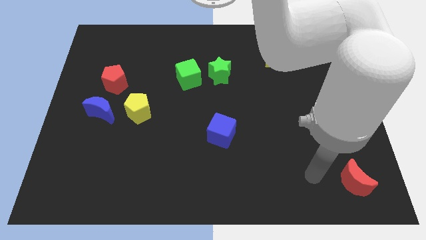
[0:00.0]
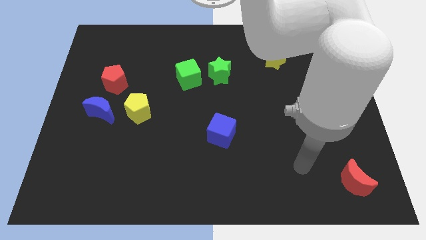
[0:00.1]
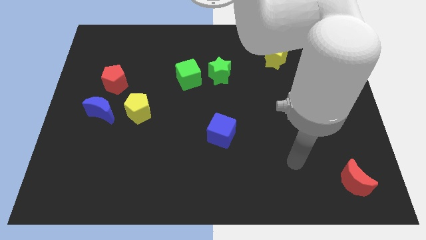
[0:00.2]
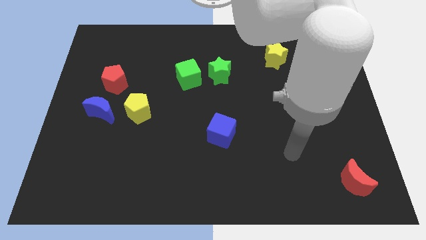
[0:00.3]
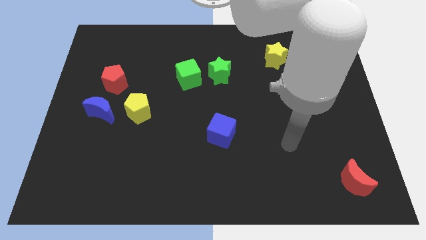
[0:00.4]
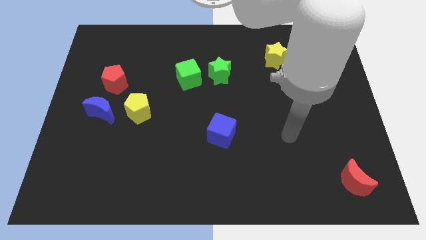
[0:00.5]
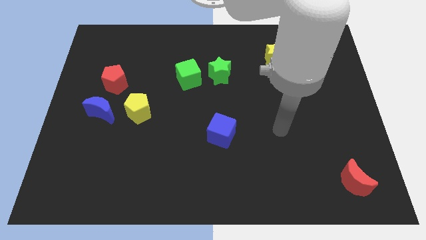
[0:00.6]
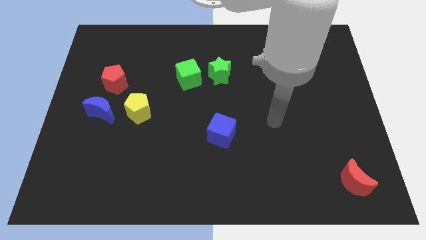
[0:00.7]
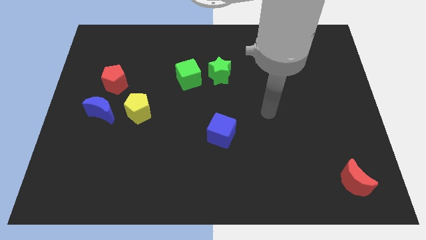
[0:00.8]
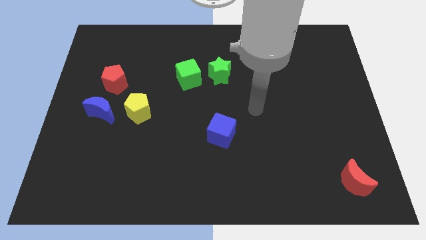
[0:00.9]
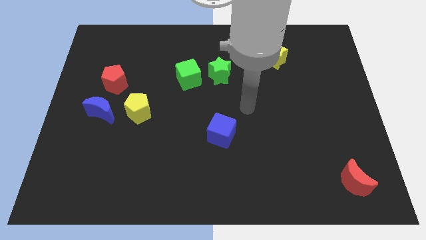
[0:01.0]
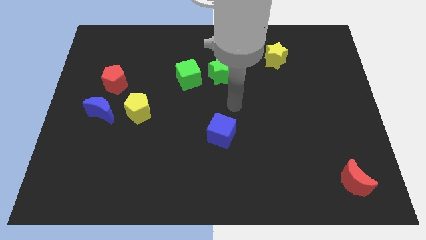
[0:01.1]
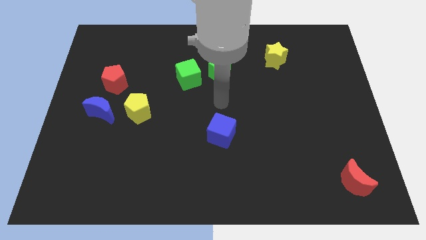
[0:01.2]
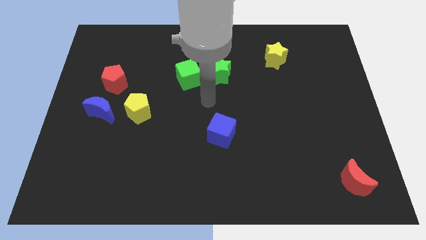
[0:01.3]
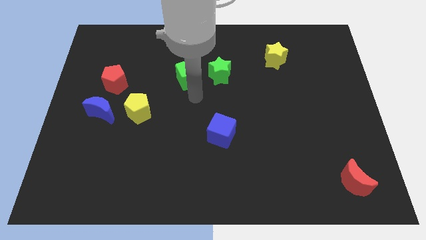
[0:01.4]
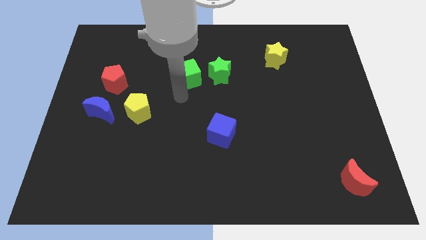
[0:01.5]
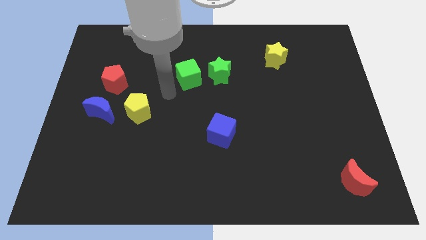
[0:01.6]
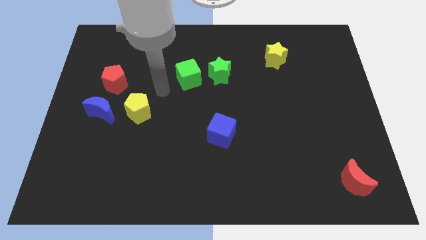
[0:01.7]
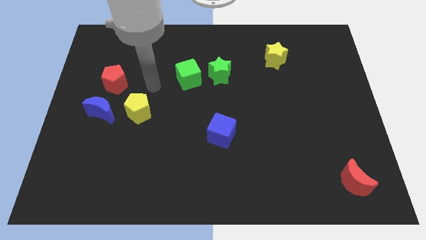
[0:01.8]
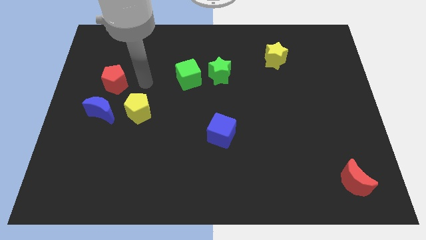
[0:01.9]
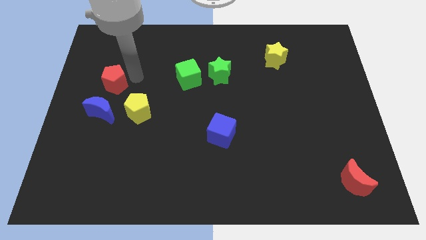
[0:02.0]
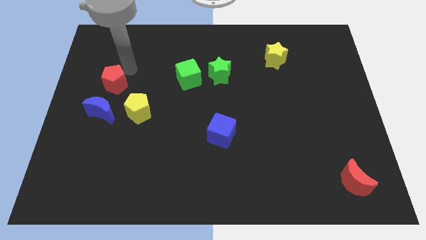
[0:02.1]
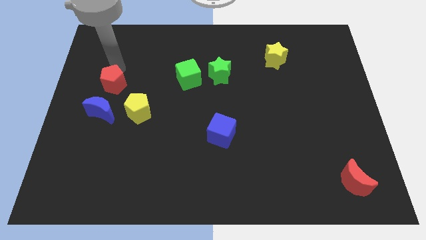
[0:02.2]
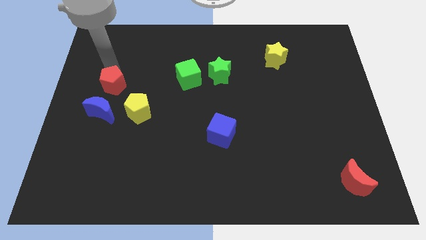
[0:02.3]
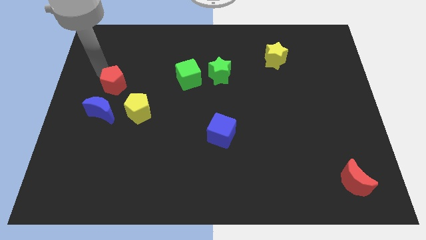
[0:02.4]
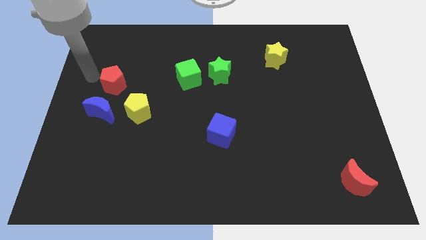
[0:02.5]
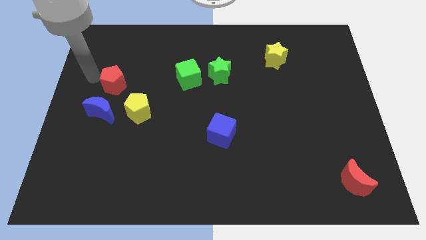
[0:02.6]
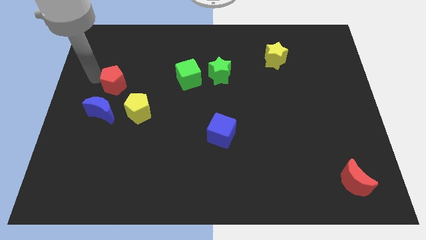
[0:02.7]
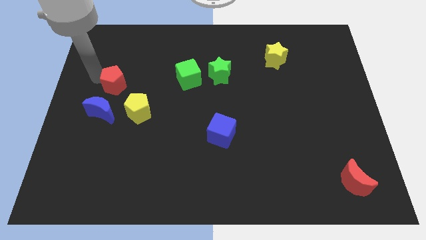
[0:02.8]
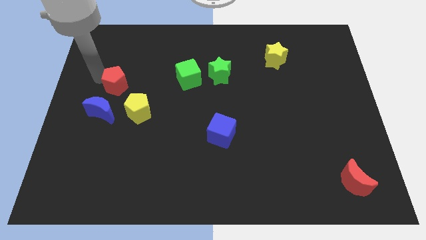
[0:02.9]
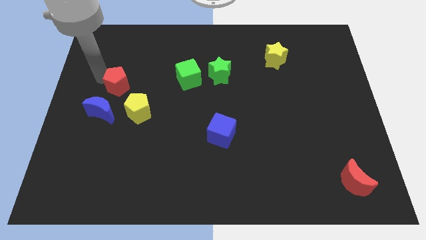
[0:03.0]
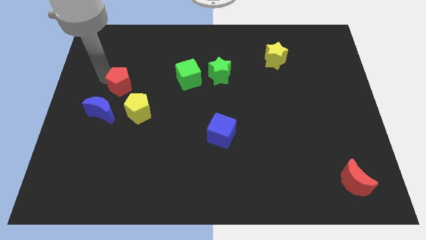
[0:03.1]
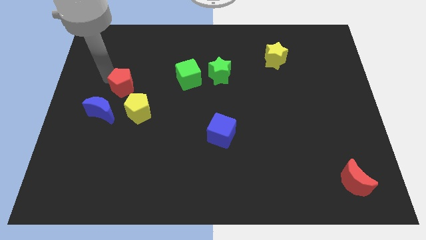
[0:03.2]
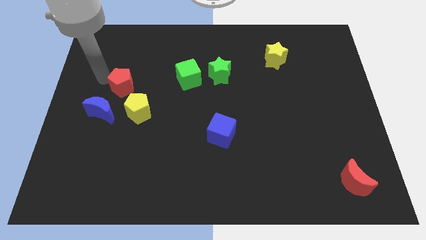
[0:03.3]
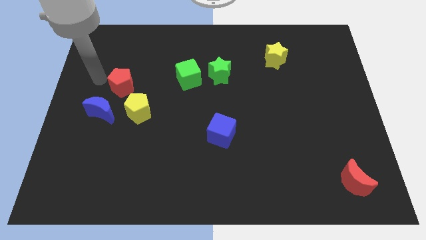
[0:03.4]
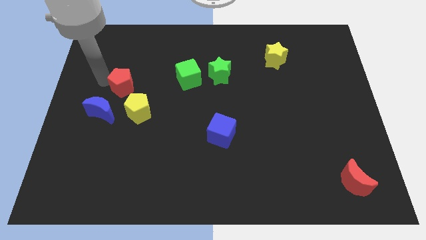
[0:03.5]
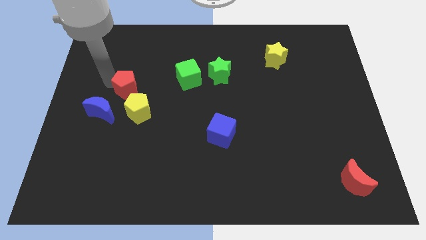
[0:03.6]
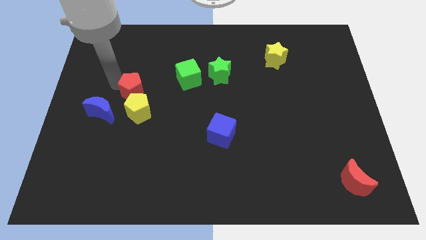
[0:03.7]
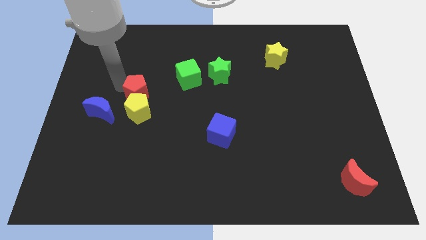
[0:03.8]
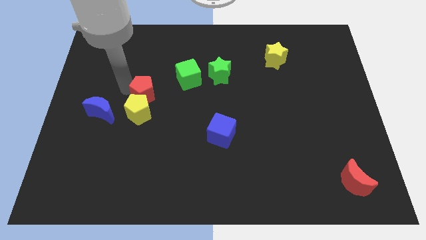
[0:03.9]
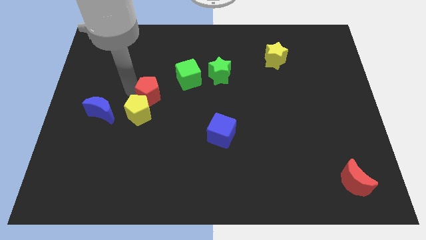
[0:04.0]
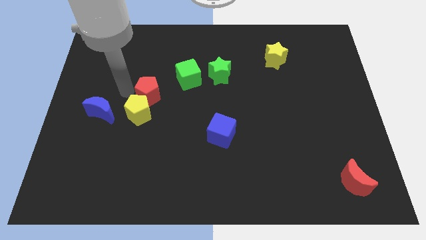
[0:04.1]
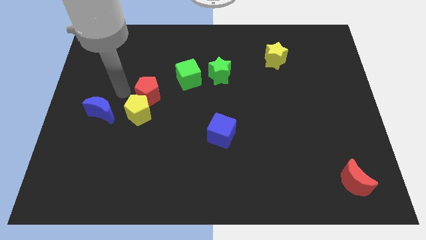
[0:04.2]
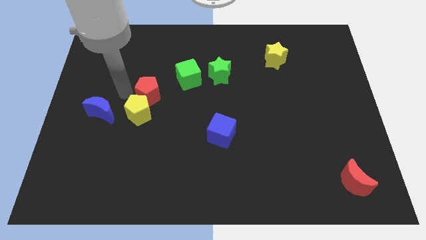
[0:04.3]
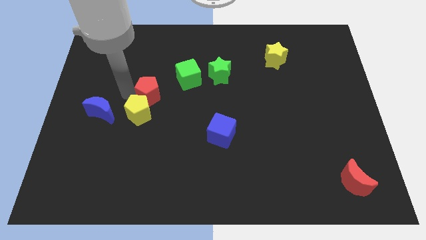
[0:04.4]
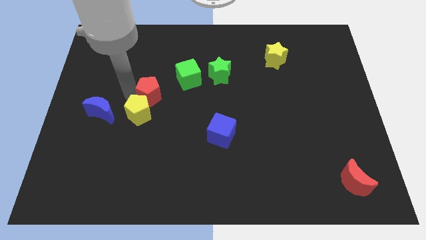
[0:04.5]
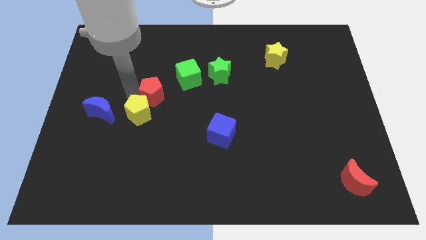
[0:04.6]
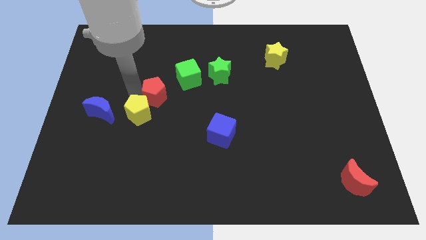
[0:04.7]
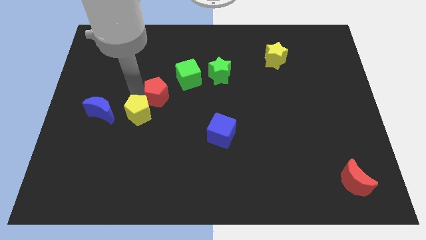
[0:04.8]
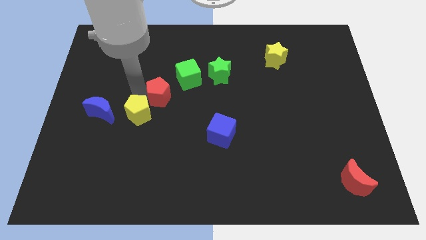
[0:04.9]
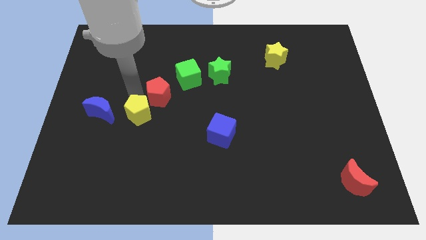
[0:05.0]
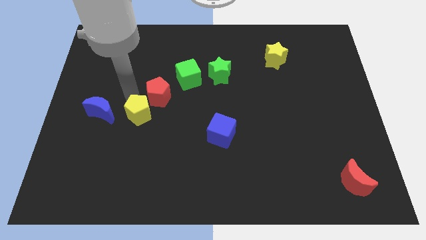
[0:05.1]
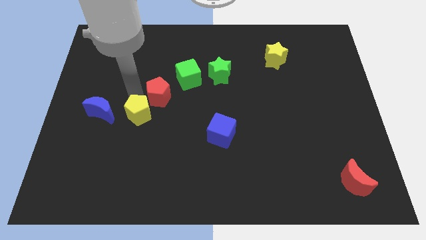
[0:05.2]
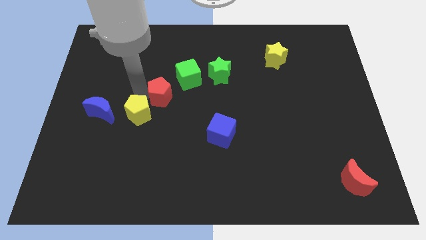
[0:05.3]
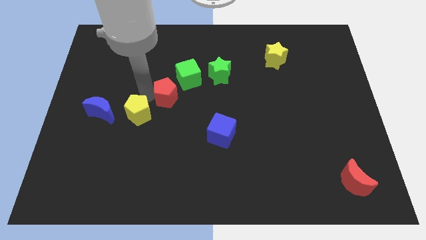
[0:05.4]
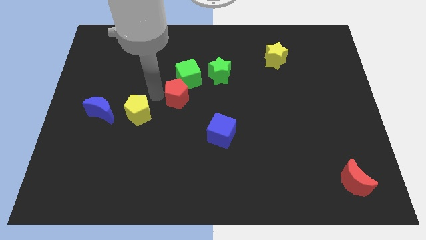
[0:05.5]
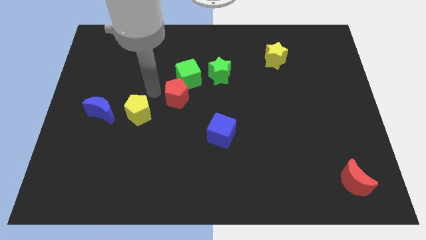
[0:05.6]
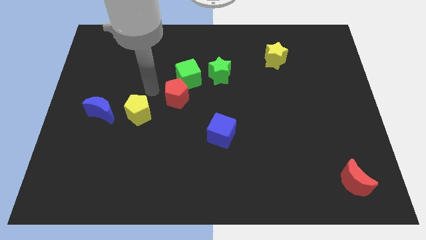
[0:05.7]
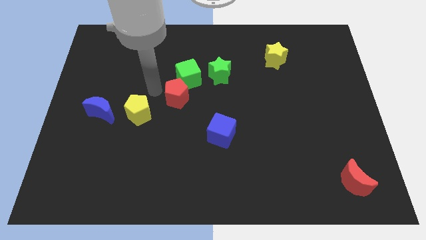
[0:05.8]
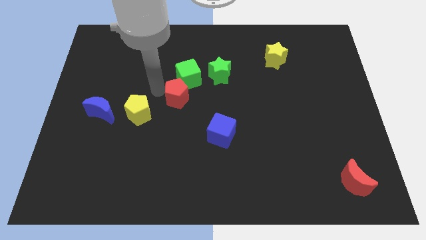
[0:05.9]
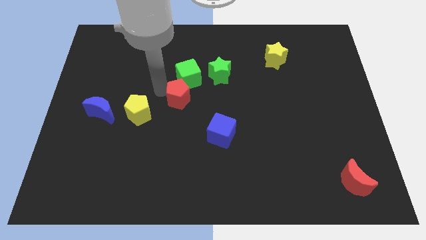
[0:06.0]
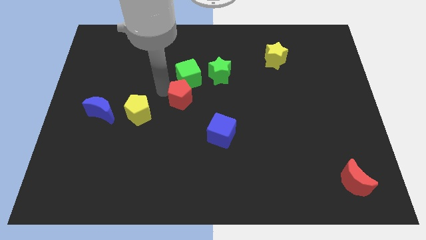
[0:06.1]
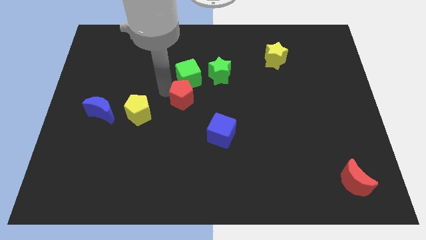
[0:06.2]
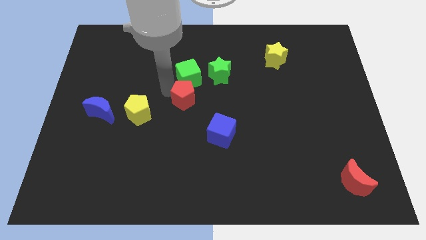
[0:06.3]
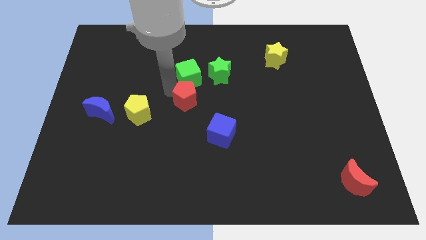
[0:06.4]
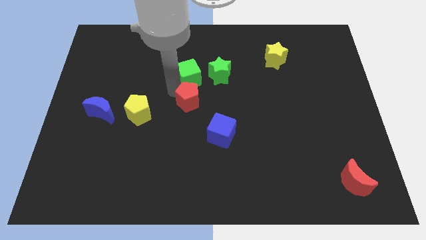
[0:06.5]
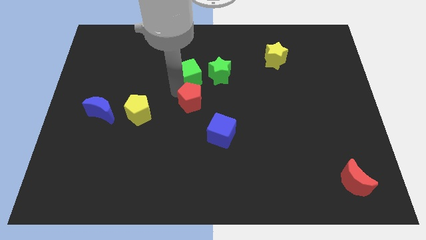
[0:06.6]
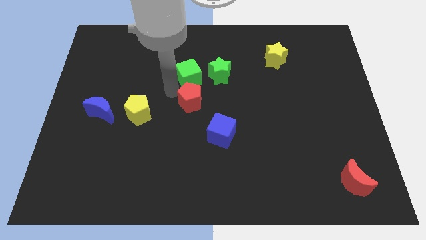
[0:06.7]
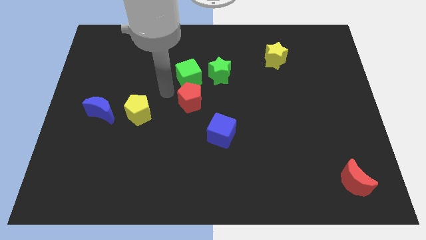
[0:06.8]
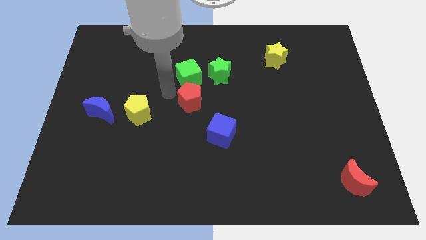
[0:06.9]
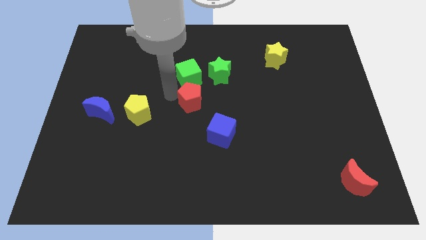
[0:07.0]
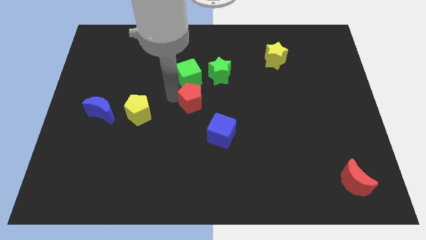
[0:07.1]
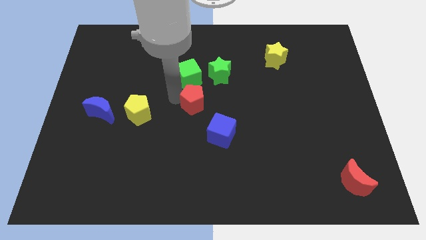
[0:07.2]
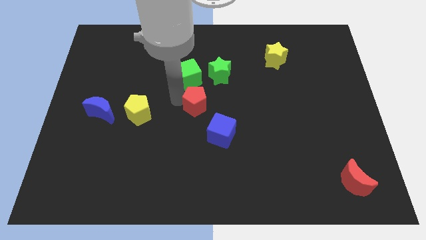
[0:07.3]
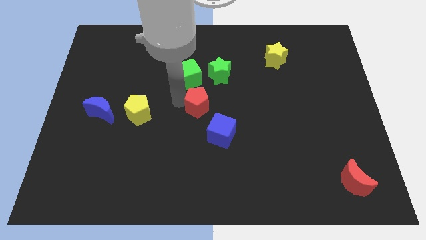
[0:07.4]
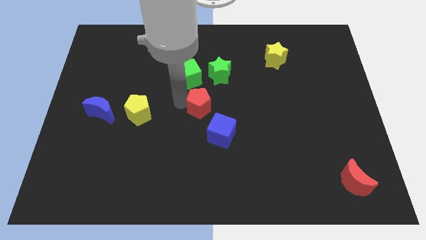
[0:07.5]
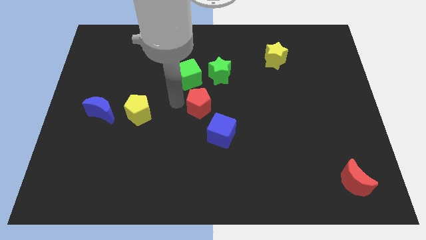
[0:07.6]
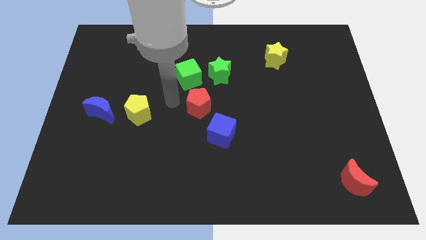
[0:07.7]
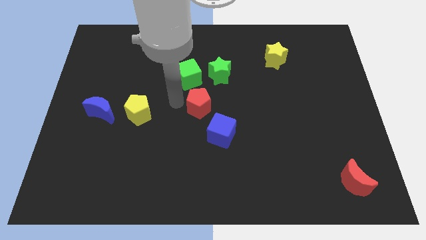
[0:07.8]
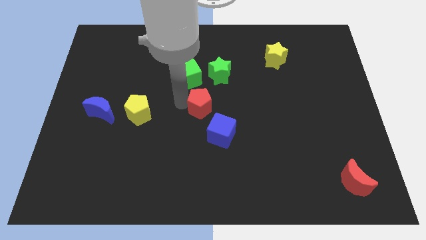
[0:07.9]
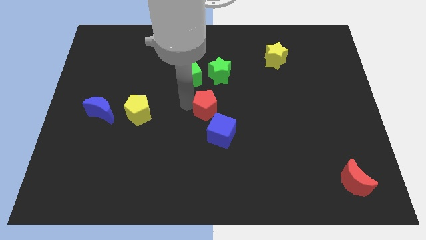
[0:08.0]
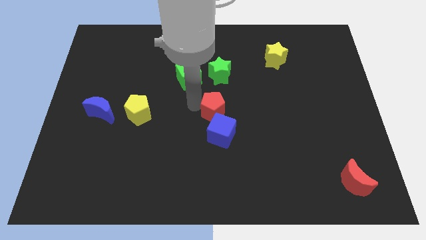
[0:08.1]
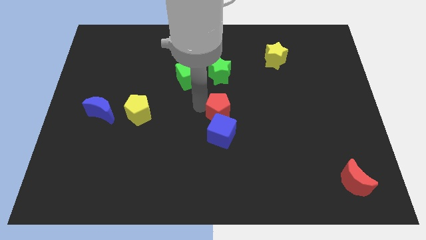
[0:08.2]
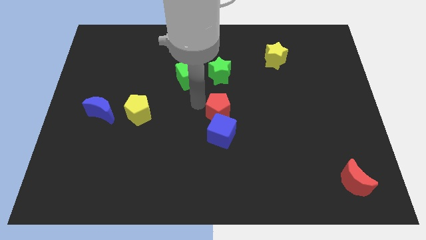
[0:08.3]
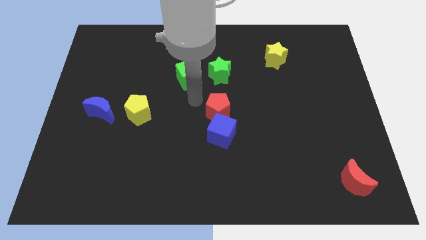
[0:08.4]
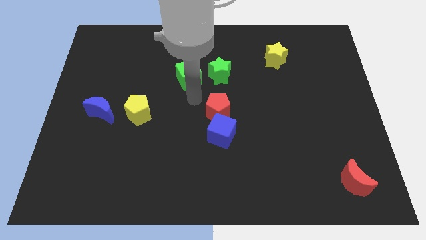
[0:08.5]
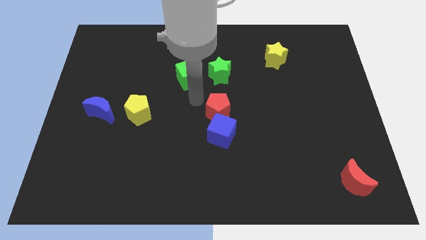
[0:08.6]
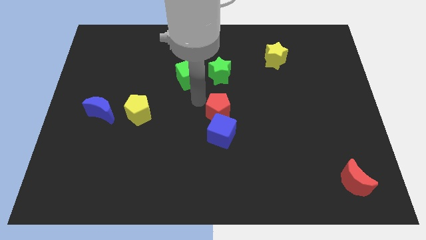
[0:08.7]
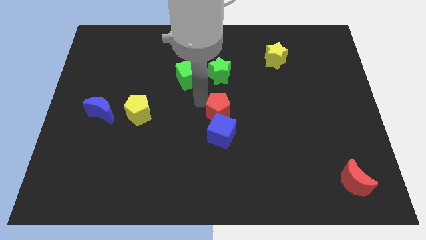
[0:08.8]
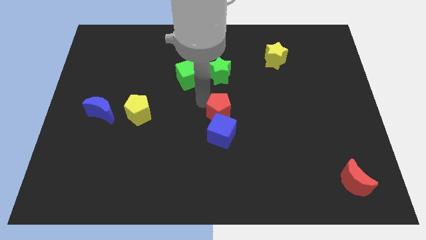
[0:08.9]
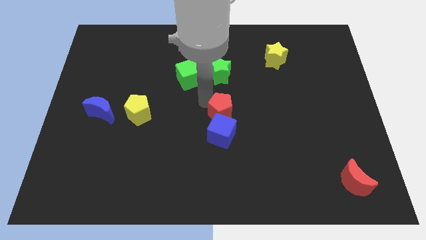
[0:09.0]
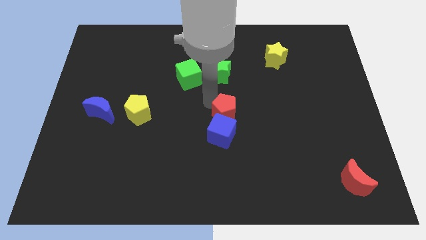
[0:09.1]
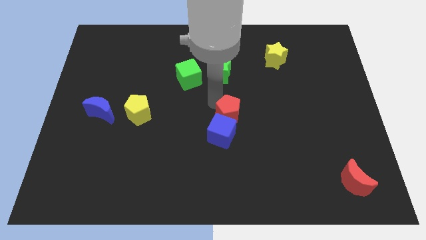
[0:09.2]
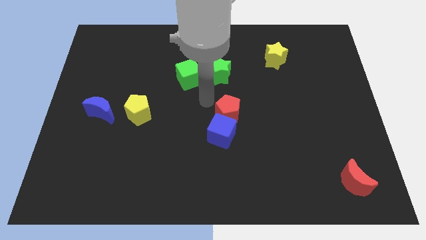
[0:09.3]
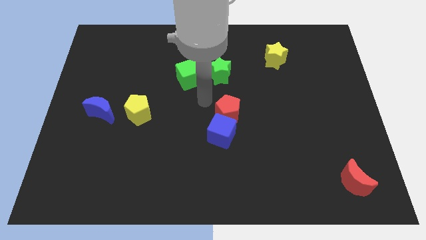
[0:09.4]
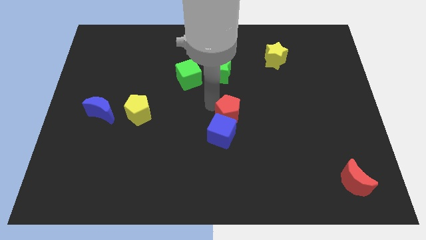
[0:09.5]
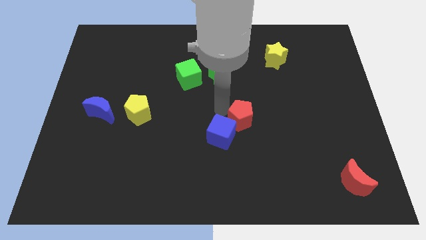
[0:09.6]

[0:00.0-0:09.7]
put the red pentagon right of the blue cube
